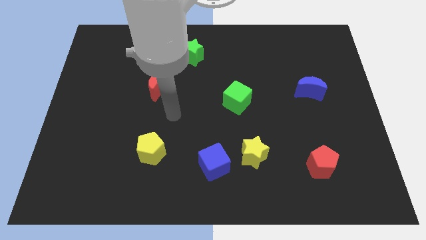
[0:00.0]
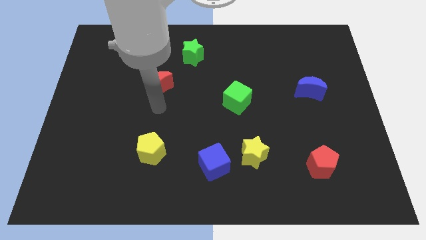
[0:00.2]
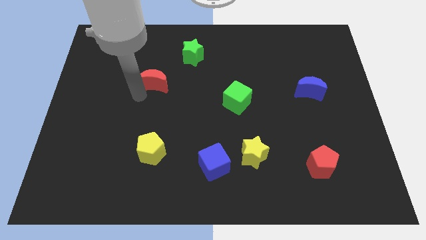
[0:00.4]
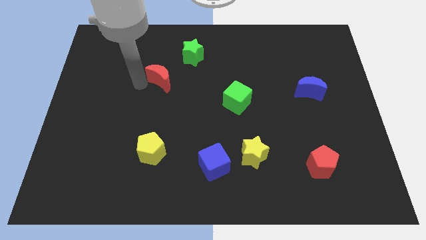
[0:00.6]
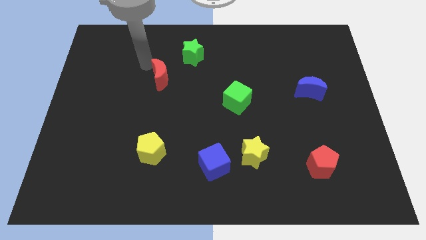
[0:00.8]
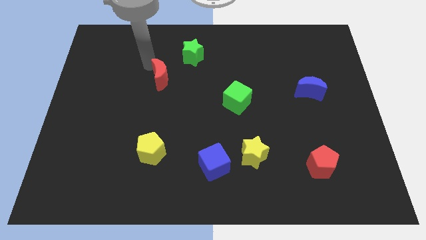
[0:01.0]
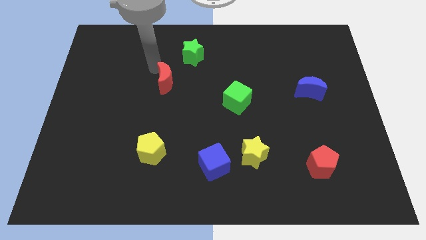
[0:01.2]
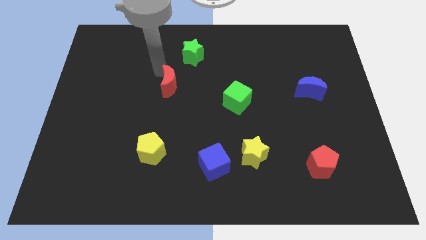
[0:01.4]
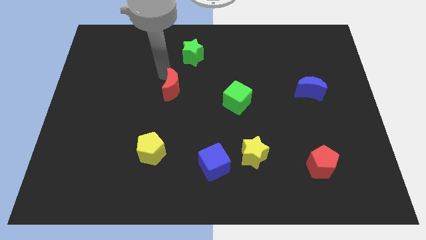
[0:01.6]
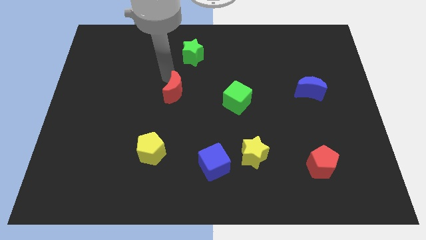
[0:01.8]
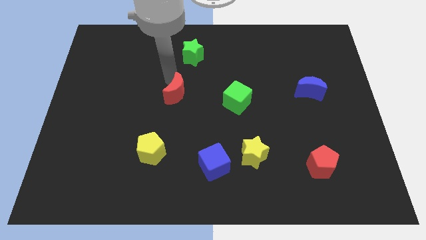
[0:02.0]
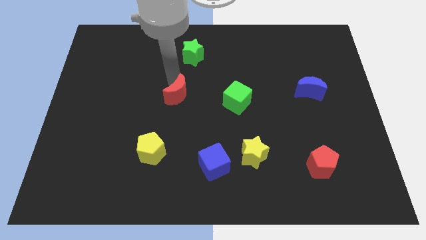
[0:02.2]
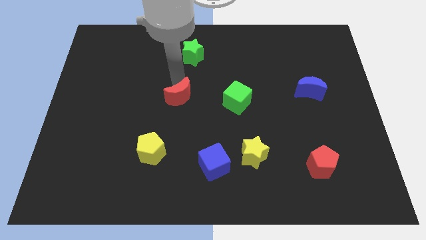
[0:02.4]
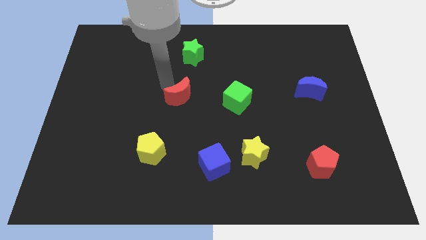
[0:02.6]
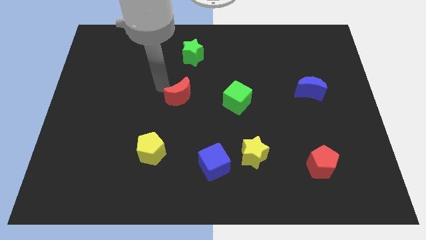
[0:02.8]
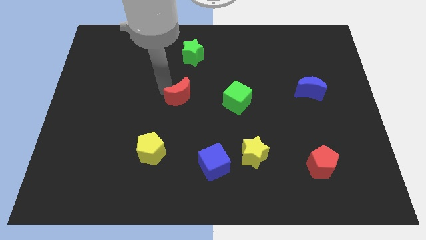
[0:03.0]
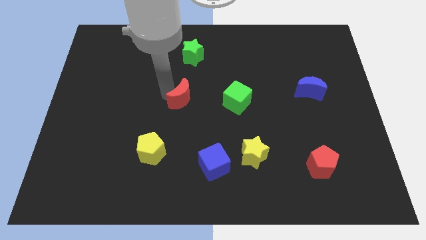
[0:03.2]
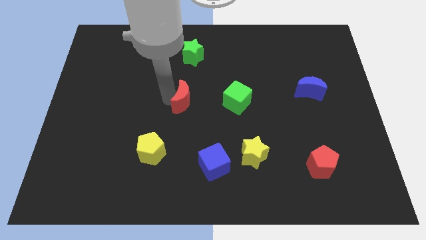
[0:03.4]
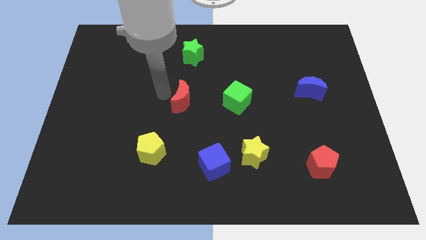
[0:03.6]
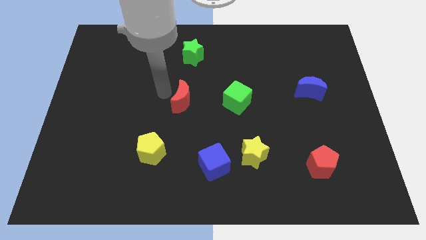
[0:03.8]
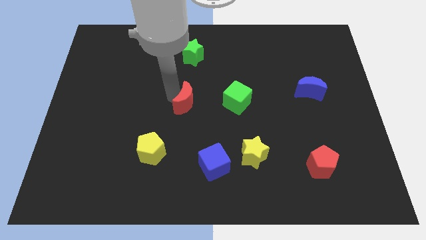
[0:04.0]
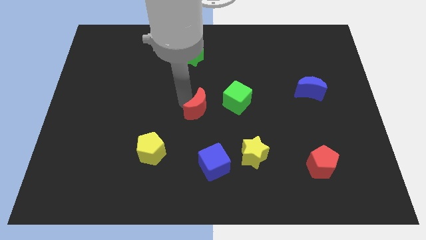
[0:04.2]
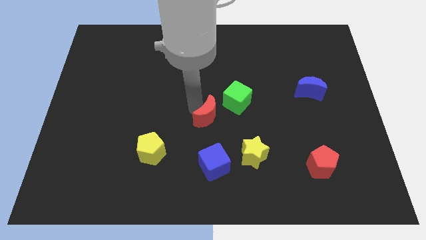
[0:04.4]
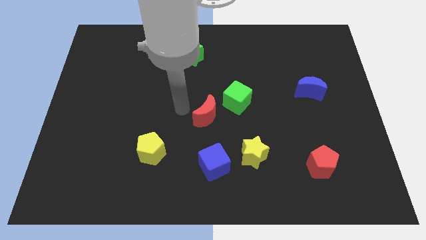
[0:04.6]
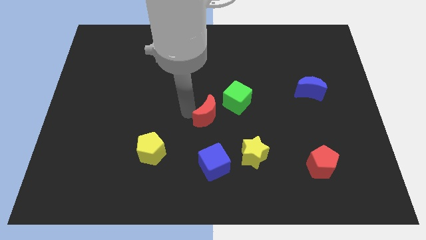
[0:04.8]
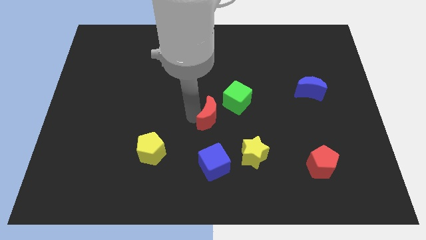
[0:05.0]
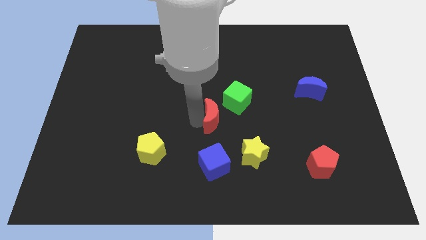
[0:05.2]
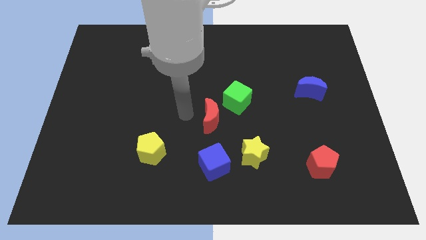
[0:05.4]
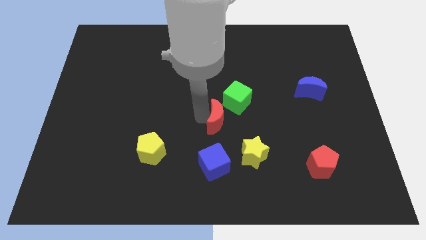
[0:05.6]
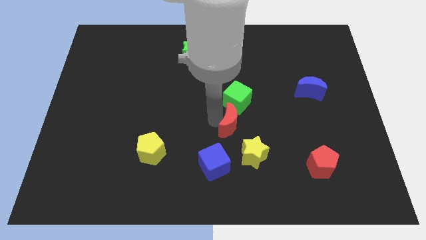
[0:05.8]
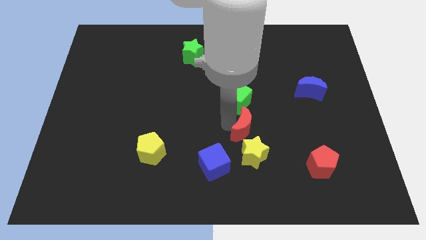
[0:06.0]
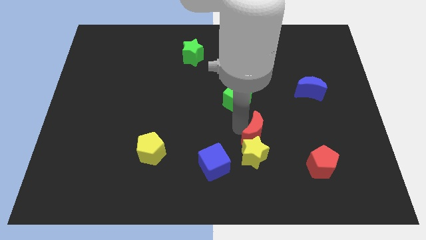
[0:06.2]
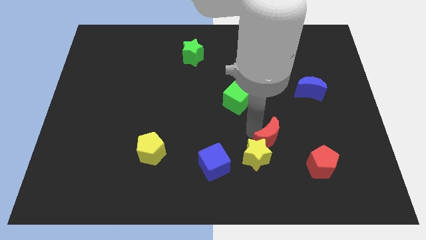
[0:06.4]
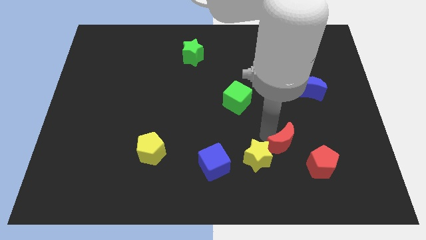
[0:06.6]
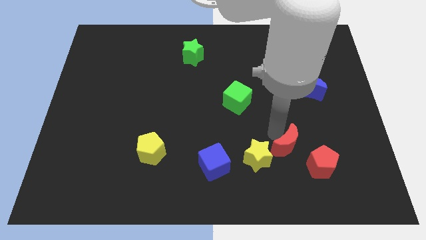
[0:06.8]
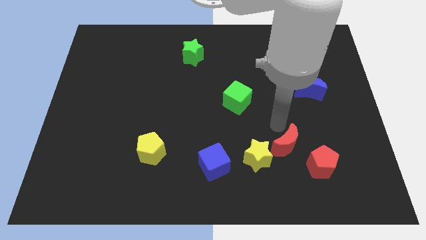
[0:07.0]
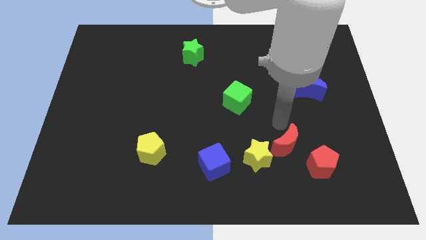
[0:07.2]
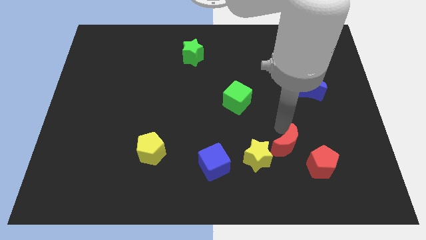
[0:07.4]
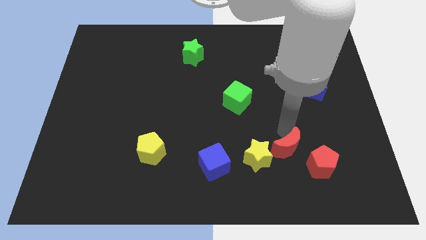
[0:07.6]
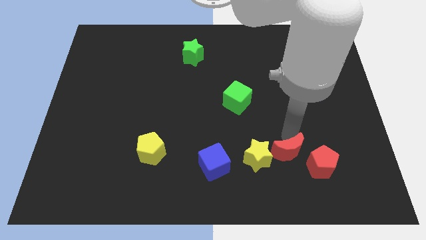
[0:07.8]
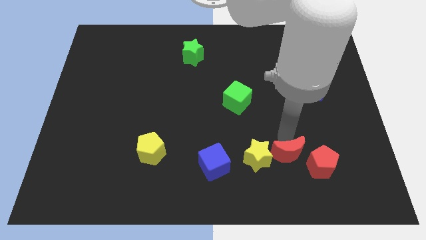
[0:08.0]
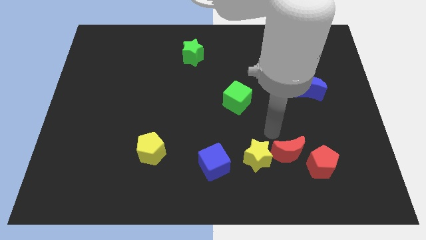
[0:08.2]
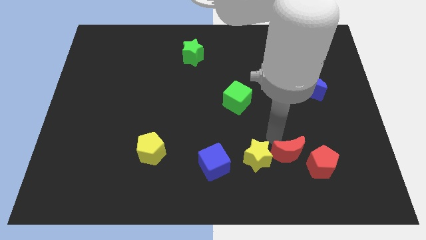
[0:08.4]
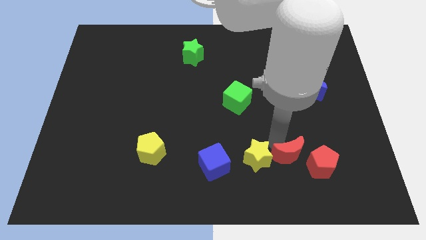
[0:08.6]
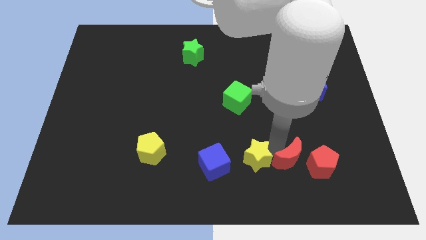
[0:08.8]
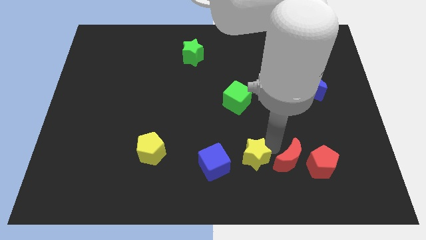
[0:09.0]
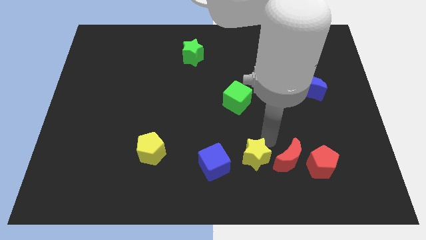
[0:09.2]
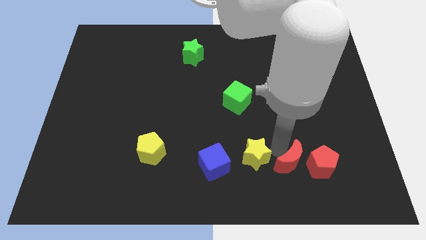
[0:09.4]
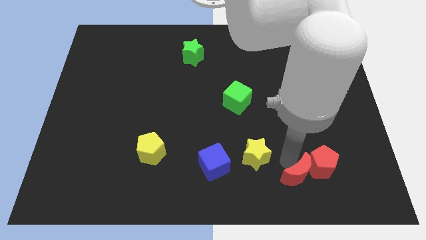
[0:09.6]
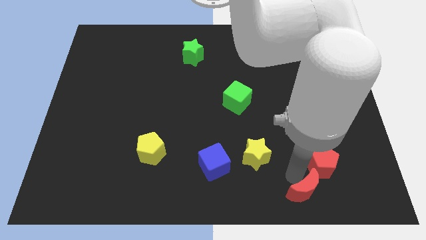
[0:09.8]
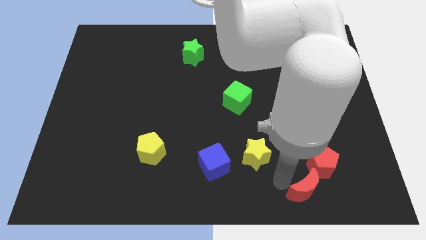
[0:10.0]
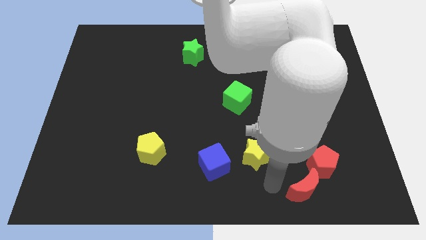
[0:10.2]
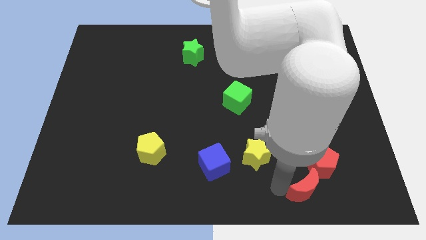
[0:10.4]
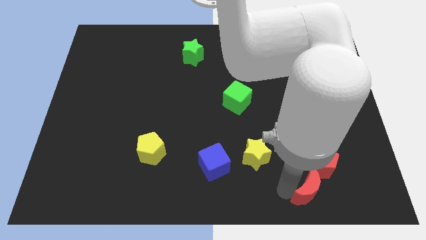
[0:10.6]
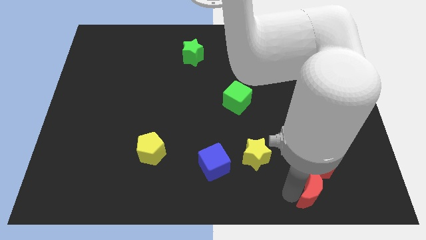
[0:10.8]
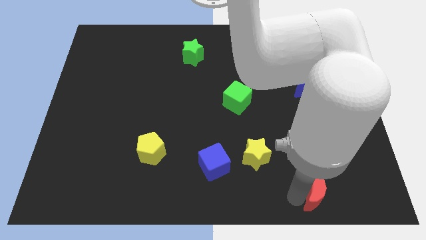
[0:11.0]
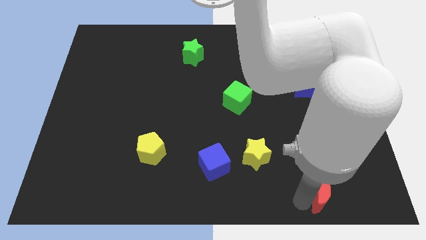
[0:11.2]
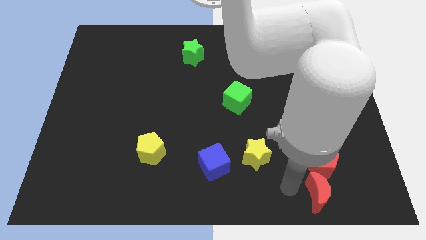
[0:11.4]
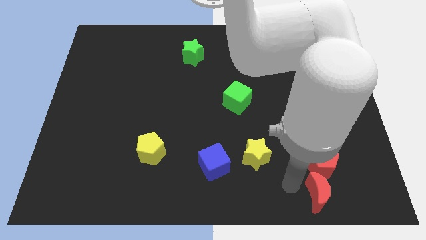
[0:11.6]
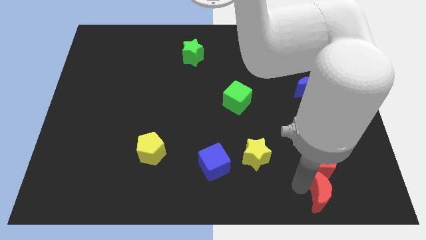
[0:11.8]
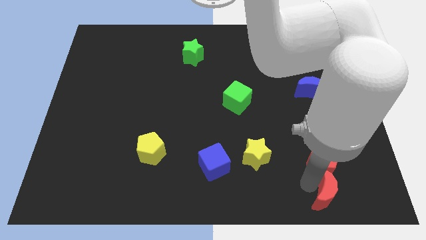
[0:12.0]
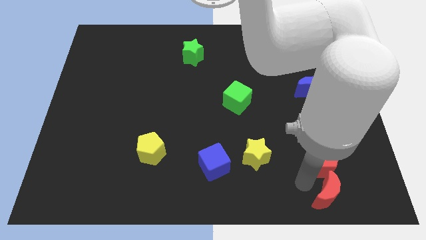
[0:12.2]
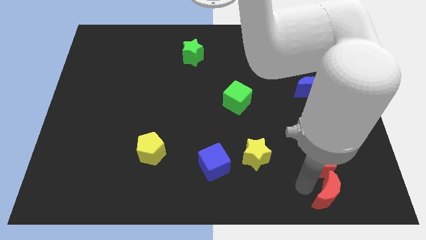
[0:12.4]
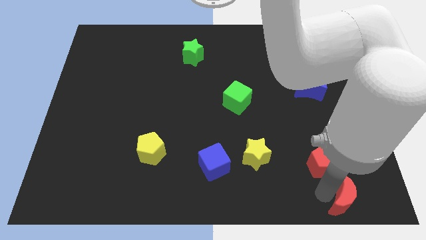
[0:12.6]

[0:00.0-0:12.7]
push the red moon to the bottom right of the board

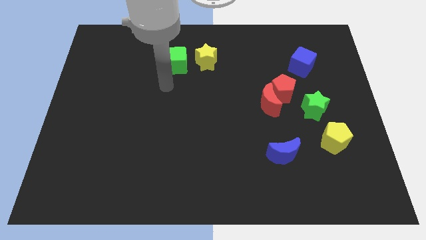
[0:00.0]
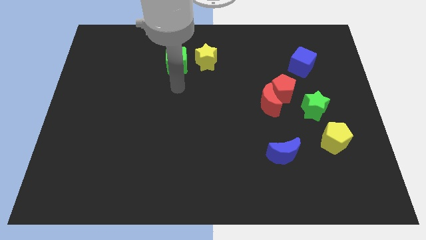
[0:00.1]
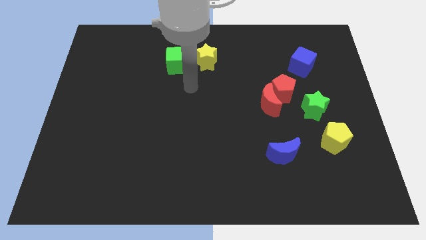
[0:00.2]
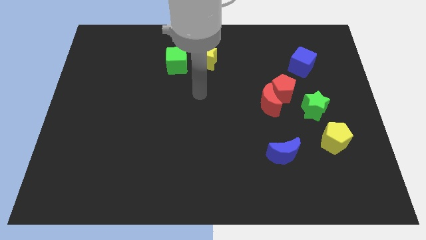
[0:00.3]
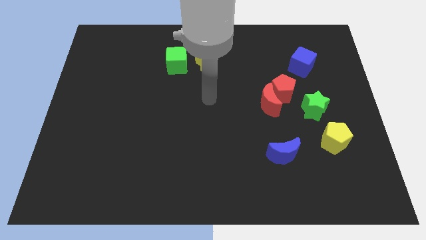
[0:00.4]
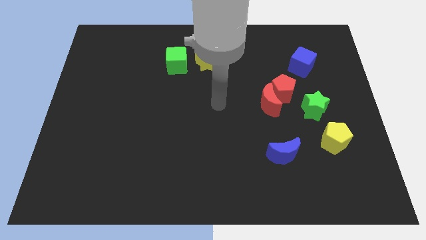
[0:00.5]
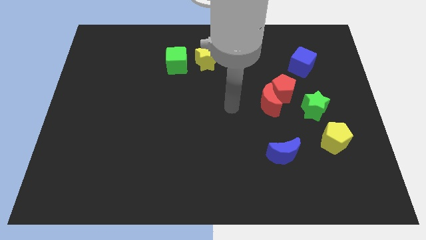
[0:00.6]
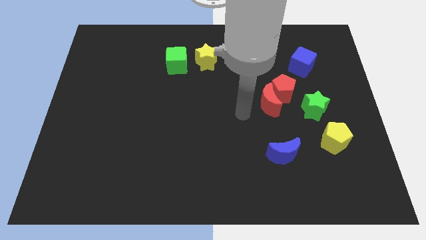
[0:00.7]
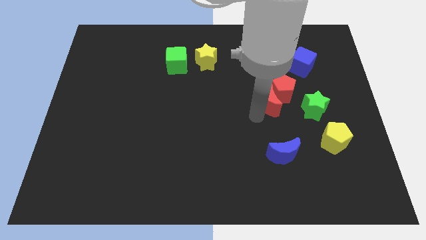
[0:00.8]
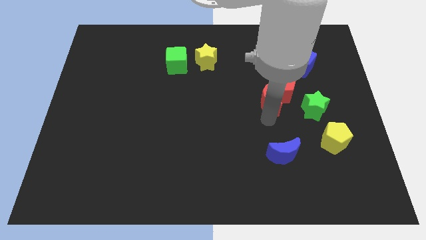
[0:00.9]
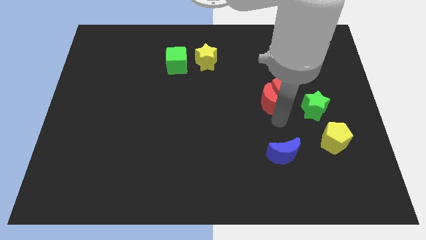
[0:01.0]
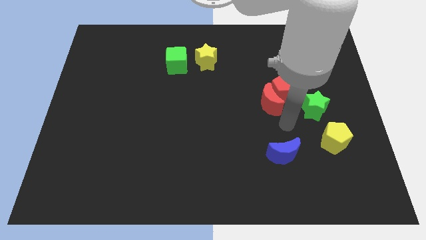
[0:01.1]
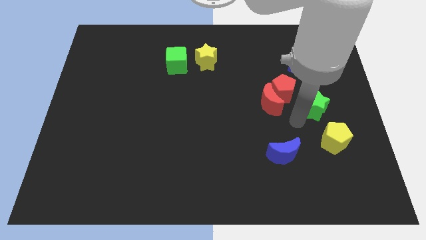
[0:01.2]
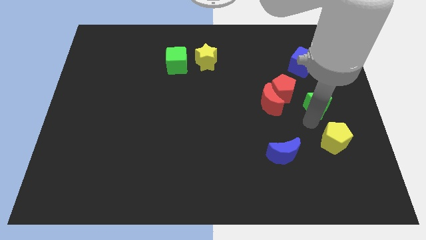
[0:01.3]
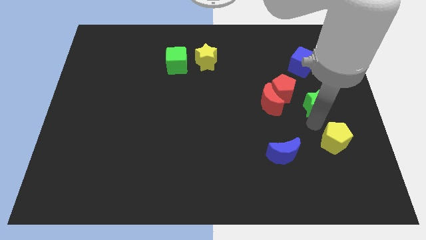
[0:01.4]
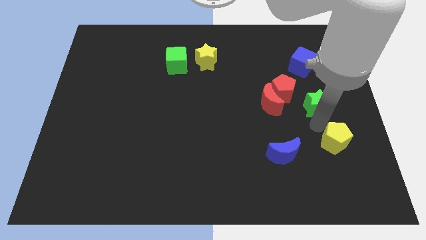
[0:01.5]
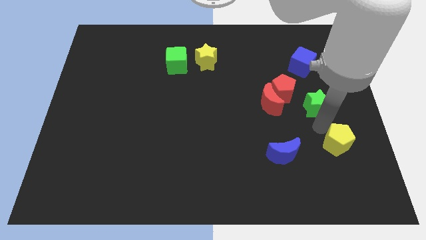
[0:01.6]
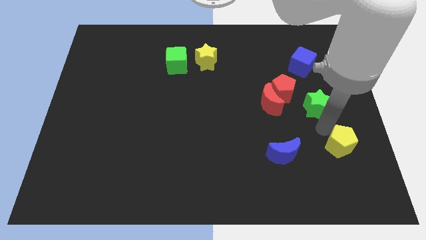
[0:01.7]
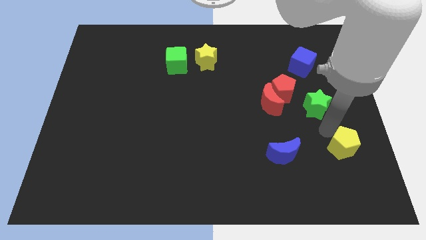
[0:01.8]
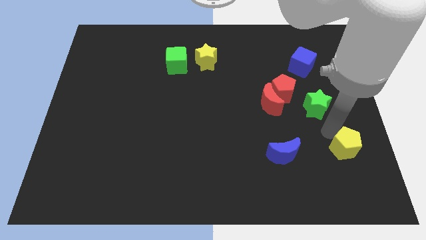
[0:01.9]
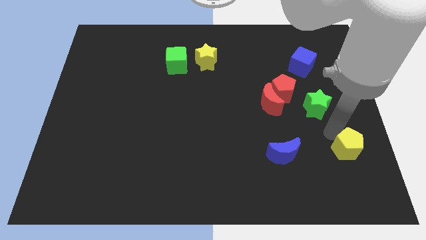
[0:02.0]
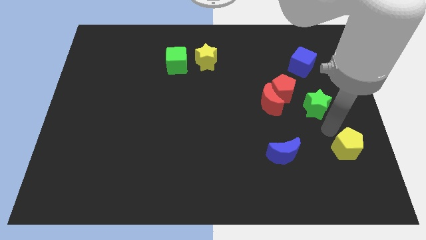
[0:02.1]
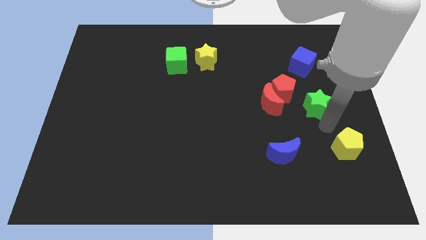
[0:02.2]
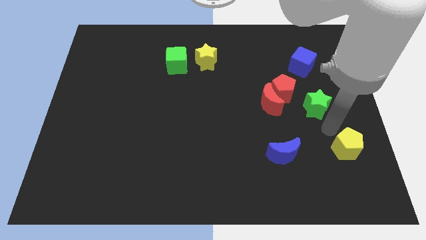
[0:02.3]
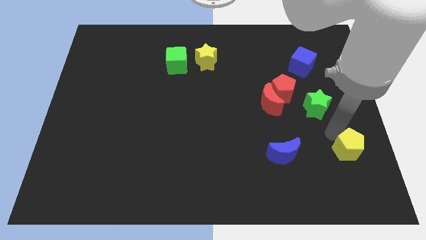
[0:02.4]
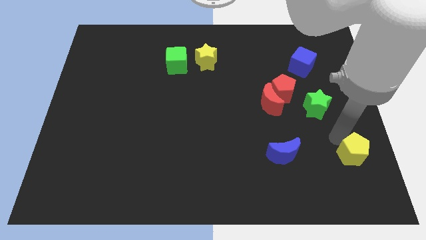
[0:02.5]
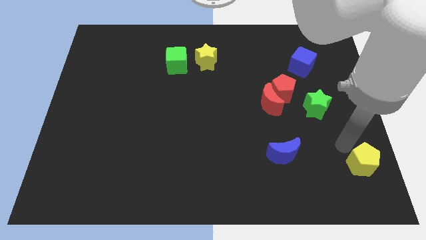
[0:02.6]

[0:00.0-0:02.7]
move the yellow pentagon to the bottom right
